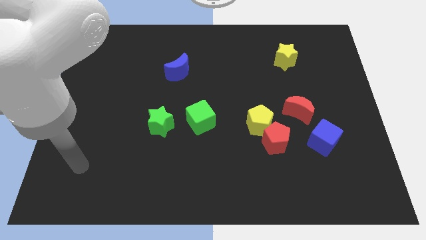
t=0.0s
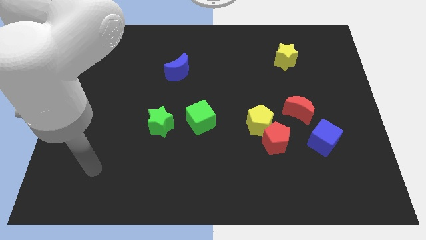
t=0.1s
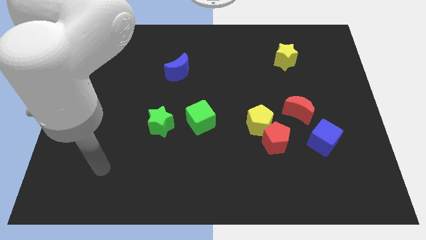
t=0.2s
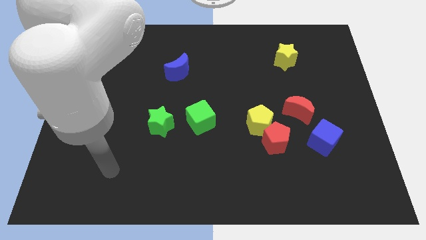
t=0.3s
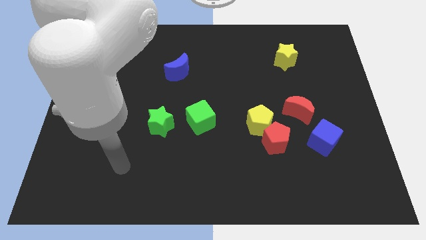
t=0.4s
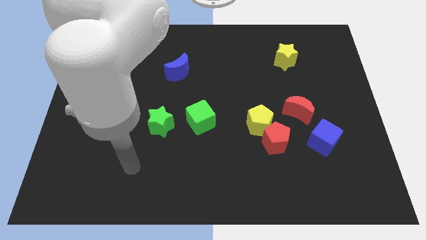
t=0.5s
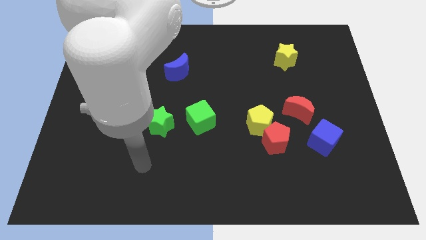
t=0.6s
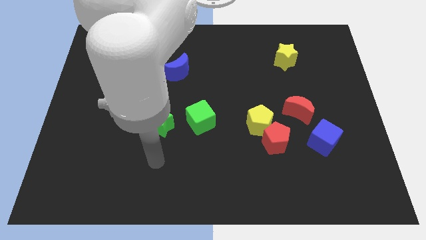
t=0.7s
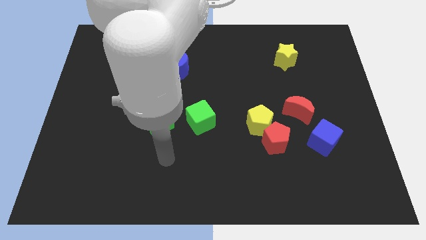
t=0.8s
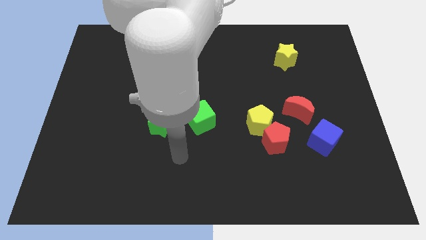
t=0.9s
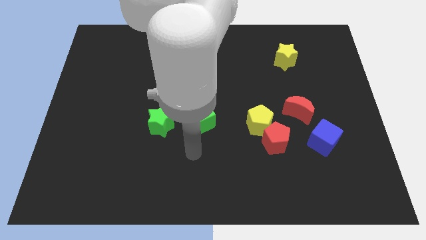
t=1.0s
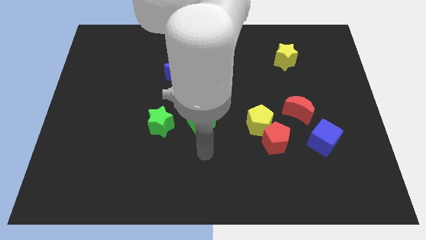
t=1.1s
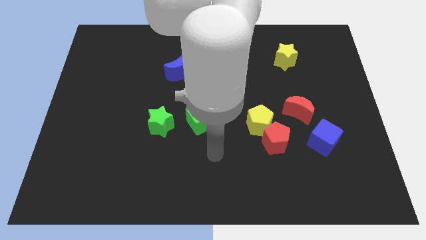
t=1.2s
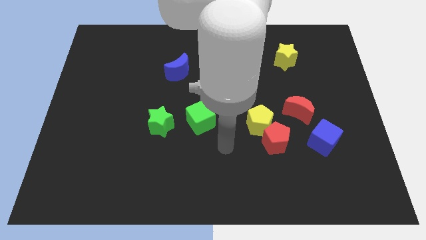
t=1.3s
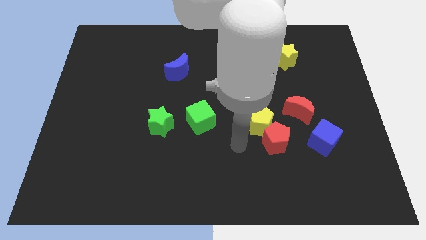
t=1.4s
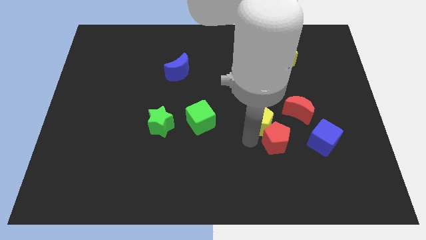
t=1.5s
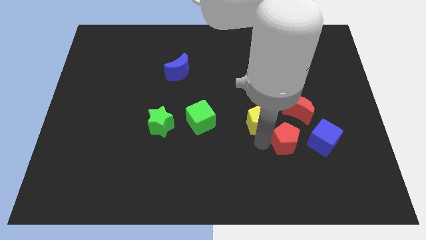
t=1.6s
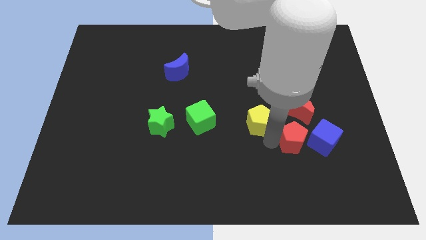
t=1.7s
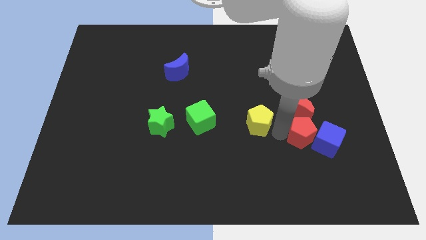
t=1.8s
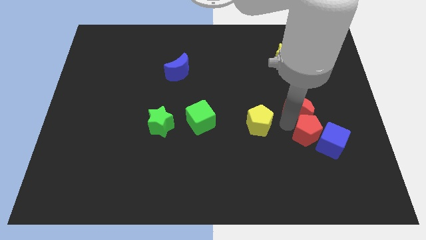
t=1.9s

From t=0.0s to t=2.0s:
pull the yellow pentagon apart from the red pentagon and red moon

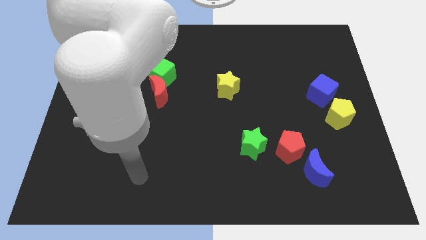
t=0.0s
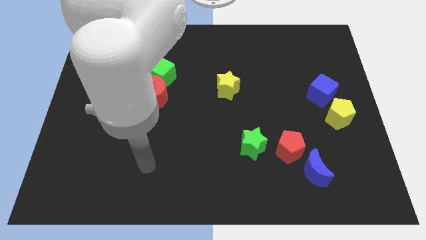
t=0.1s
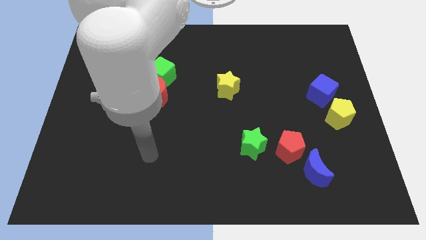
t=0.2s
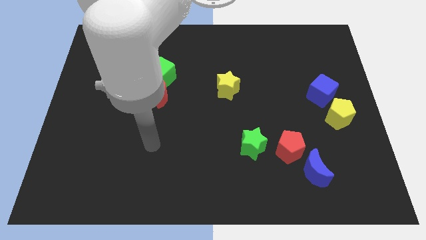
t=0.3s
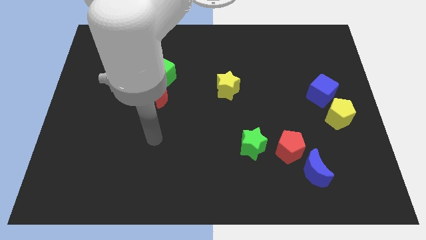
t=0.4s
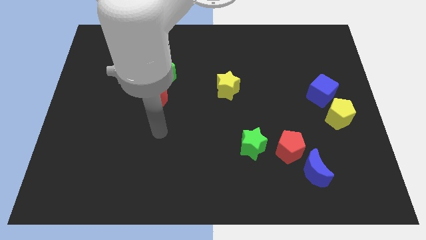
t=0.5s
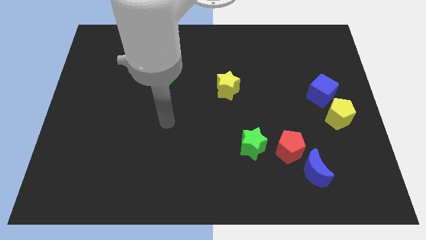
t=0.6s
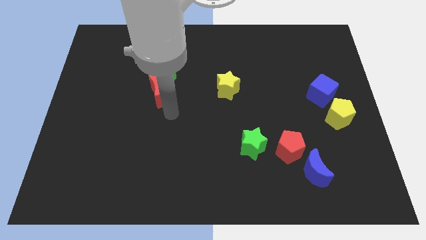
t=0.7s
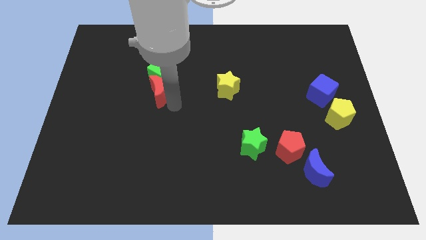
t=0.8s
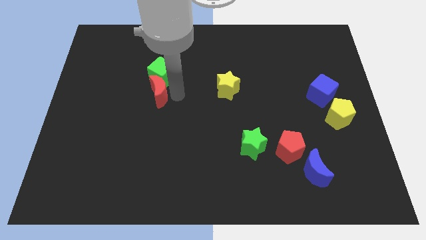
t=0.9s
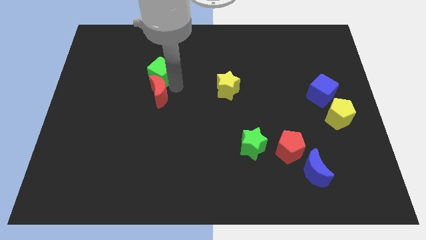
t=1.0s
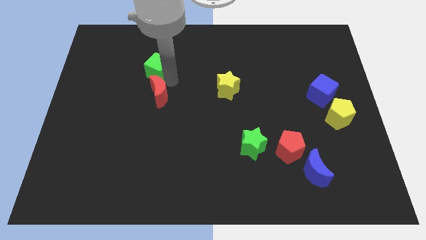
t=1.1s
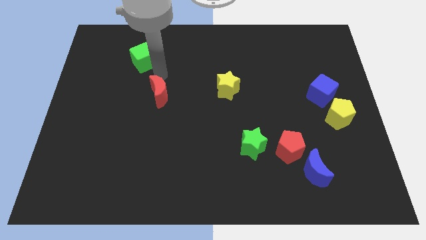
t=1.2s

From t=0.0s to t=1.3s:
separate the red moon from the green cube

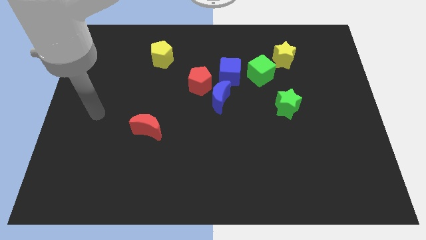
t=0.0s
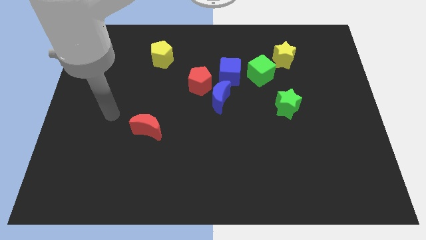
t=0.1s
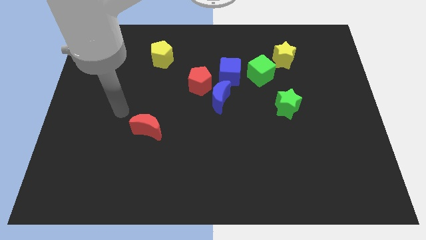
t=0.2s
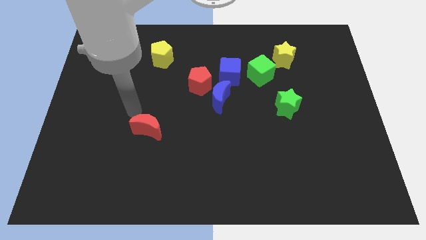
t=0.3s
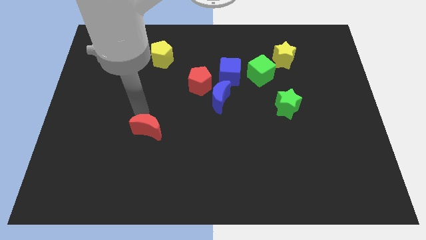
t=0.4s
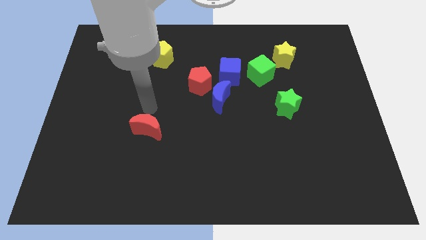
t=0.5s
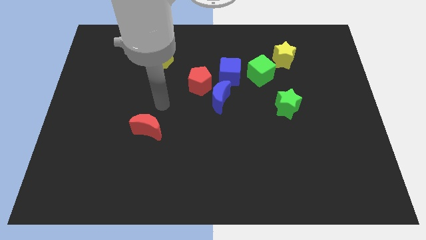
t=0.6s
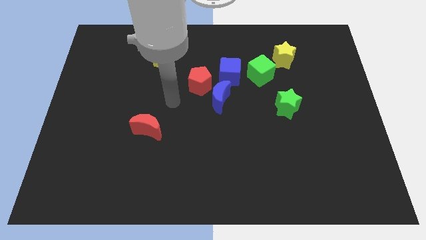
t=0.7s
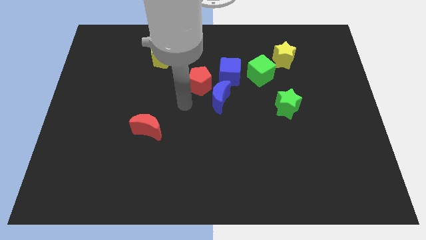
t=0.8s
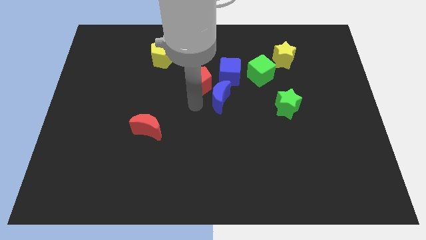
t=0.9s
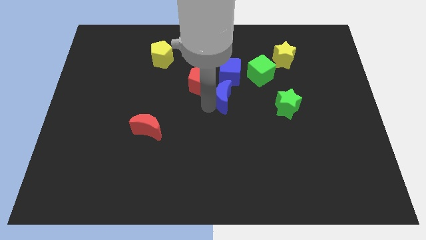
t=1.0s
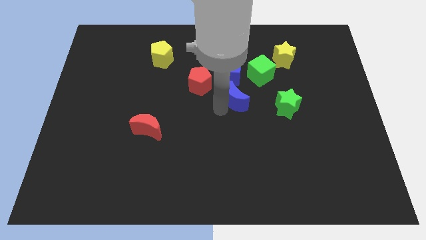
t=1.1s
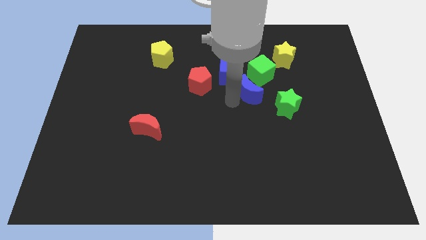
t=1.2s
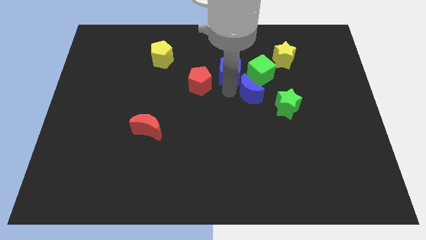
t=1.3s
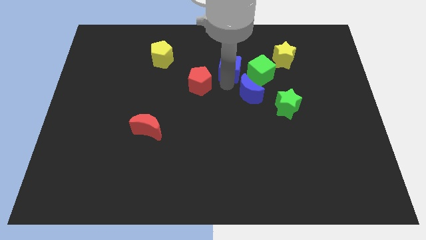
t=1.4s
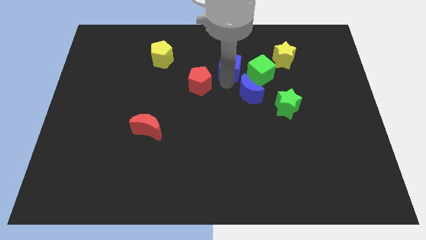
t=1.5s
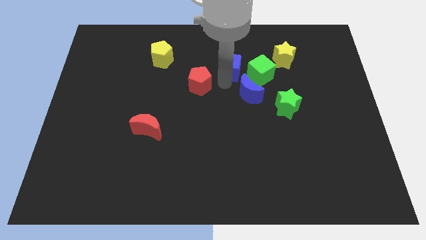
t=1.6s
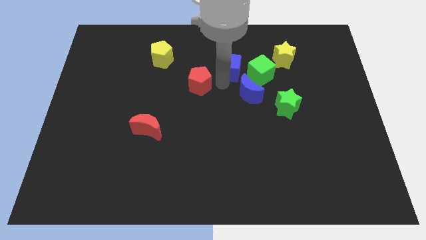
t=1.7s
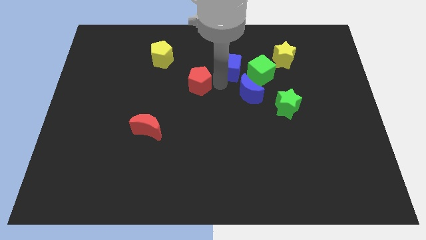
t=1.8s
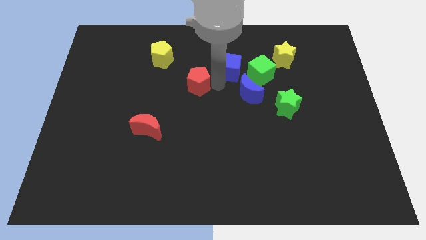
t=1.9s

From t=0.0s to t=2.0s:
move the red pentagon away from the blue moon and blue cube

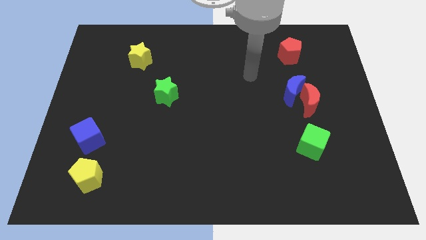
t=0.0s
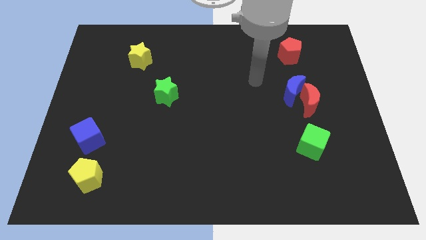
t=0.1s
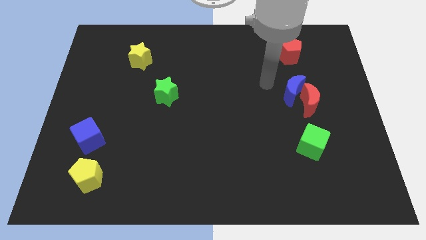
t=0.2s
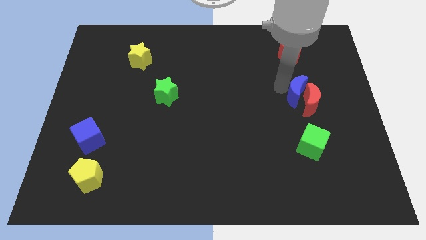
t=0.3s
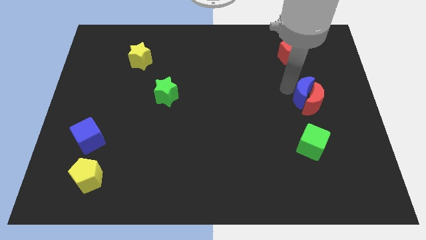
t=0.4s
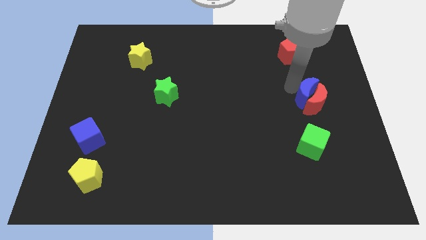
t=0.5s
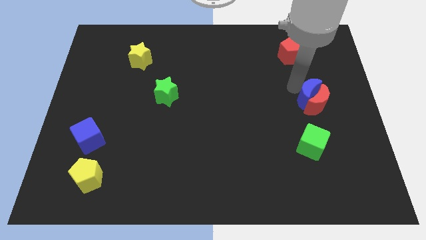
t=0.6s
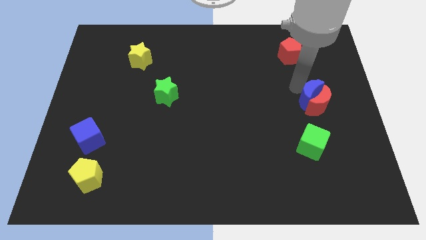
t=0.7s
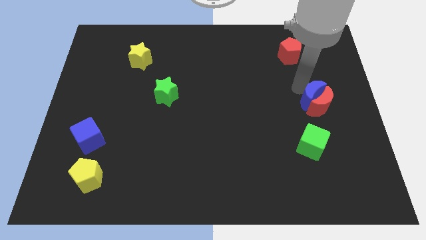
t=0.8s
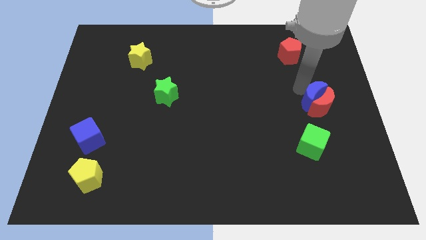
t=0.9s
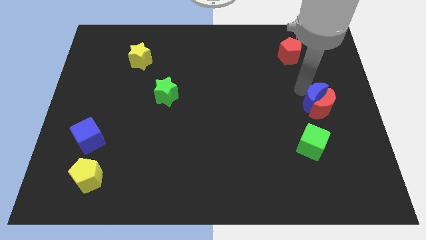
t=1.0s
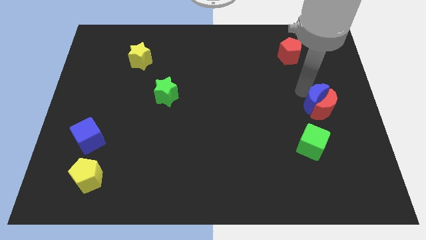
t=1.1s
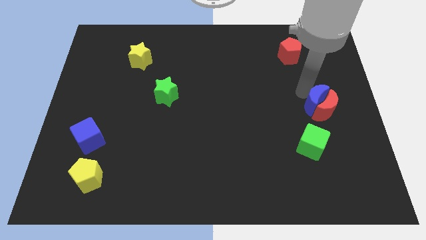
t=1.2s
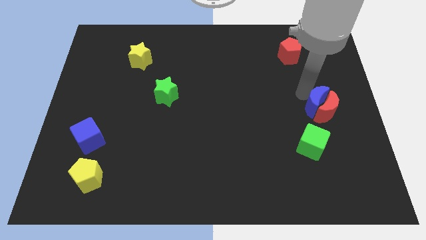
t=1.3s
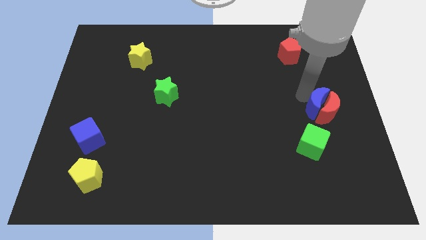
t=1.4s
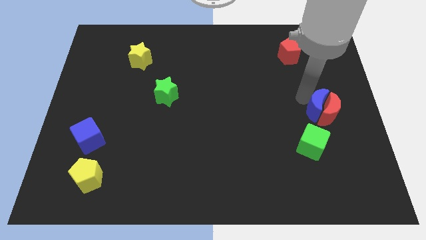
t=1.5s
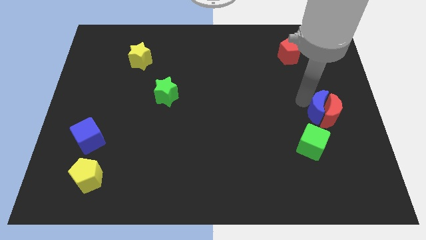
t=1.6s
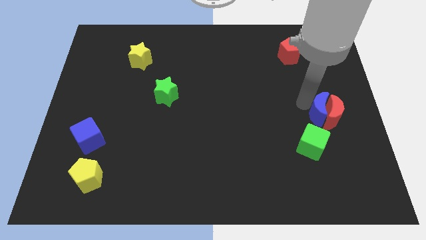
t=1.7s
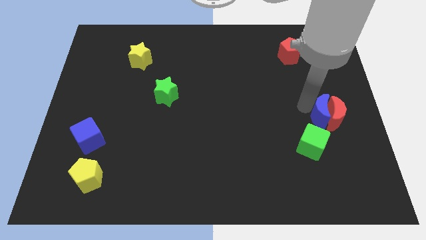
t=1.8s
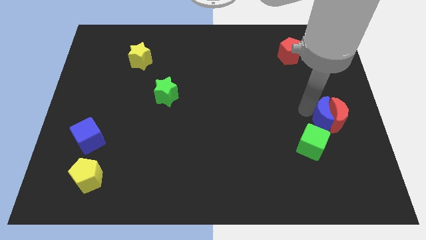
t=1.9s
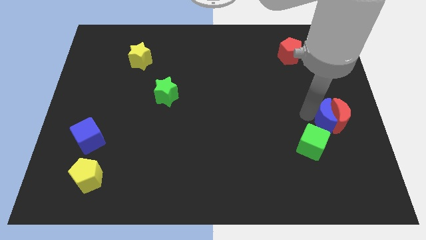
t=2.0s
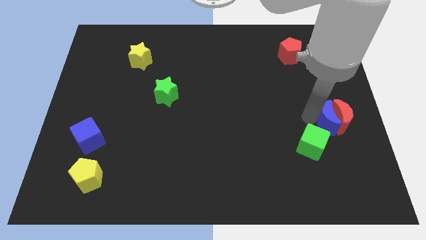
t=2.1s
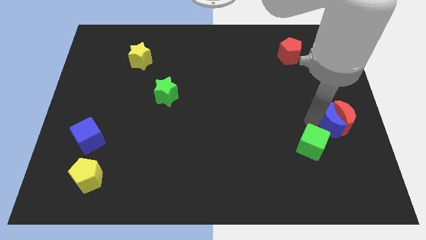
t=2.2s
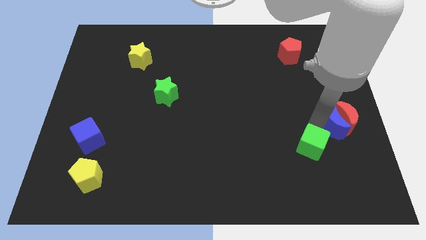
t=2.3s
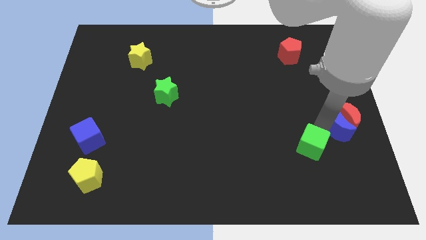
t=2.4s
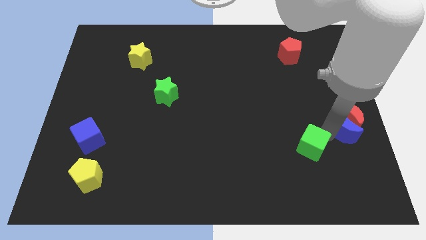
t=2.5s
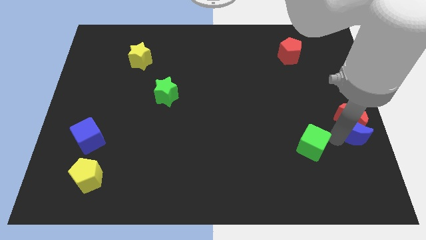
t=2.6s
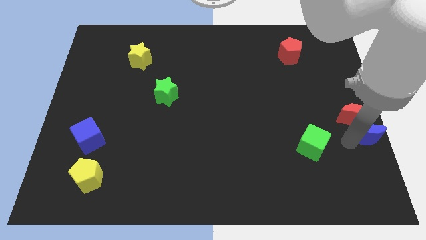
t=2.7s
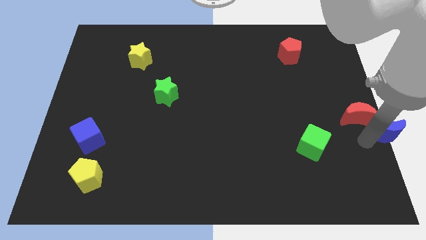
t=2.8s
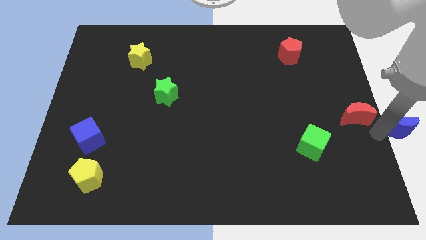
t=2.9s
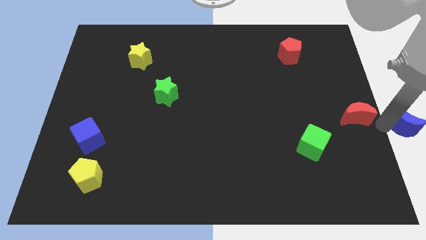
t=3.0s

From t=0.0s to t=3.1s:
pull the red moon apart from the blue moon

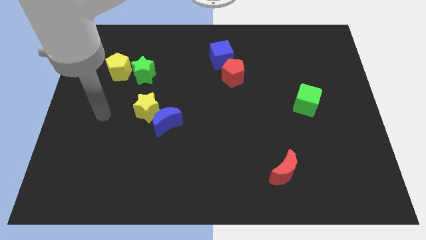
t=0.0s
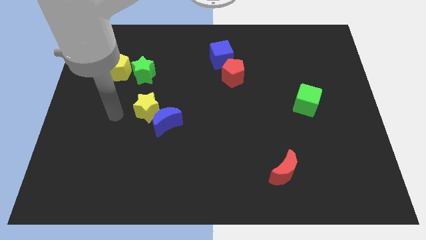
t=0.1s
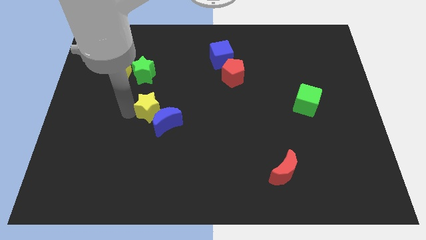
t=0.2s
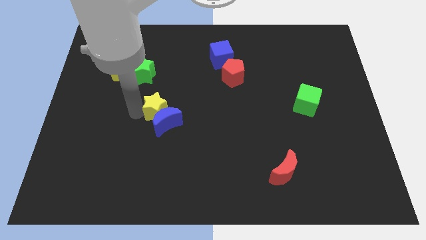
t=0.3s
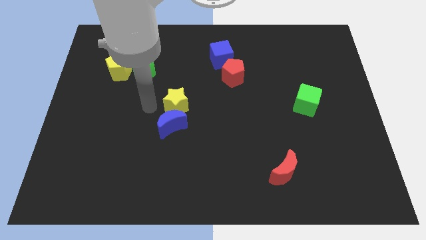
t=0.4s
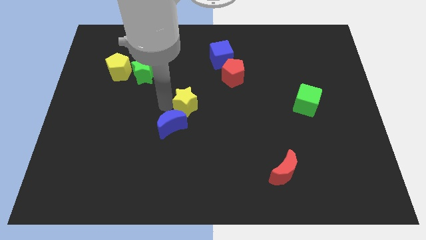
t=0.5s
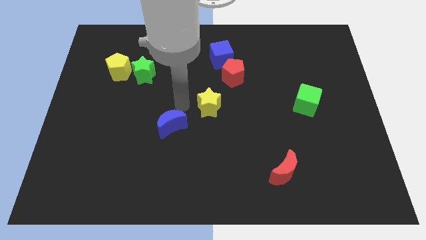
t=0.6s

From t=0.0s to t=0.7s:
pull the blue moon apart from the yellow star
